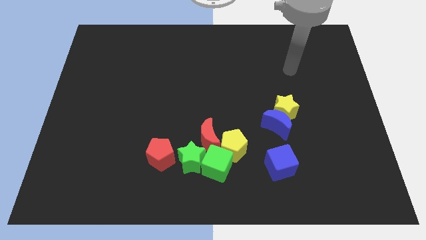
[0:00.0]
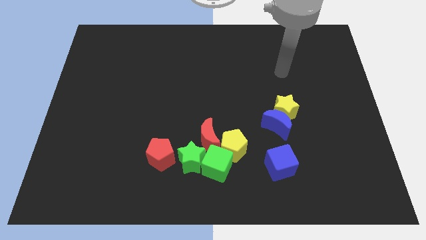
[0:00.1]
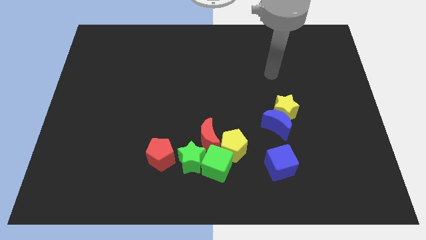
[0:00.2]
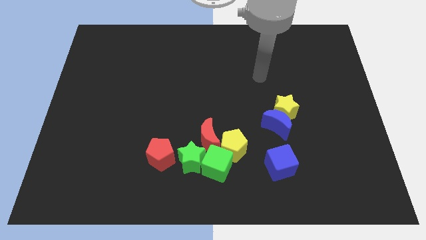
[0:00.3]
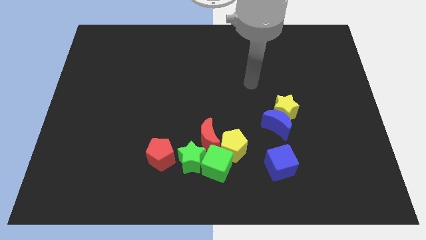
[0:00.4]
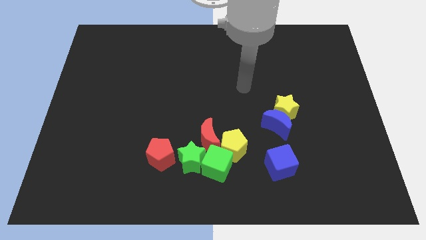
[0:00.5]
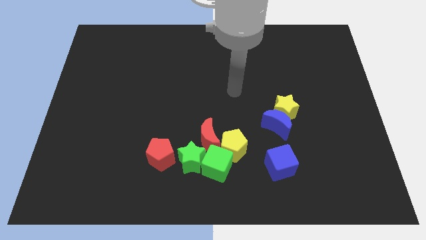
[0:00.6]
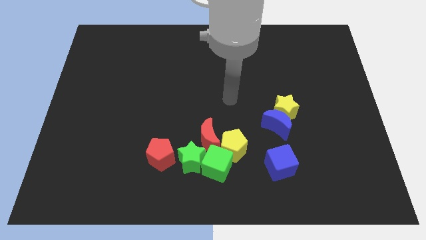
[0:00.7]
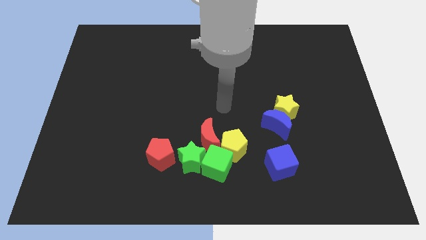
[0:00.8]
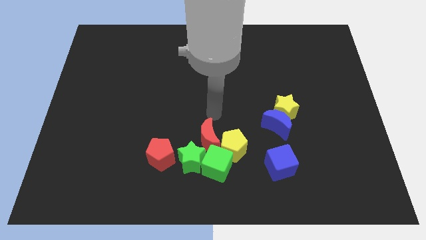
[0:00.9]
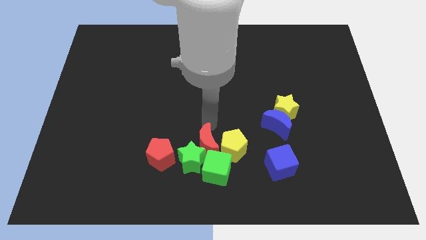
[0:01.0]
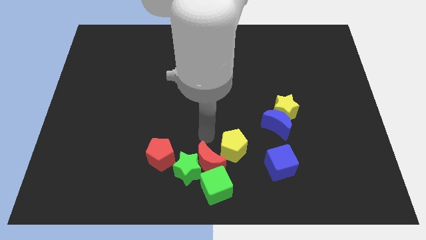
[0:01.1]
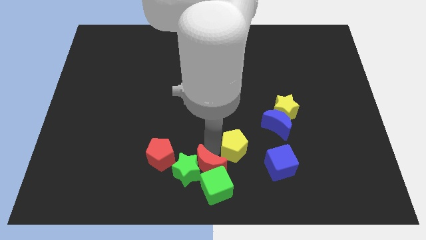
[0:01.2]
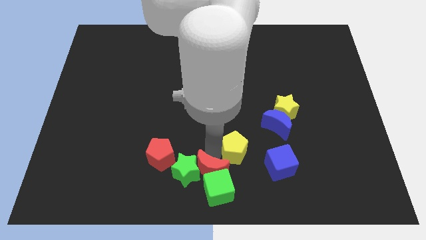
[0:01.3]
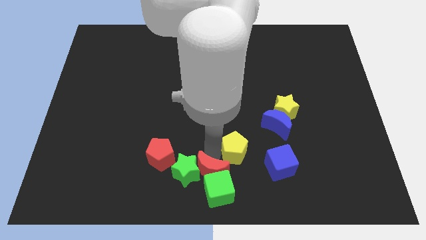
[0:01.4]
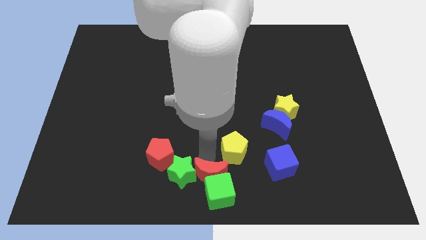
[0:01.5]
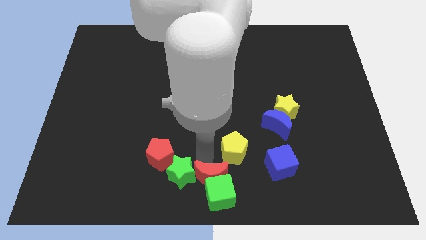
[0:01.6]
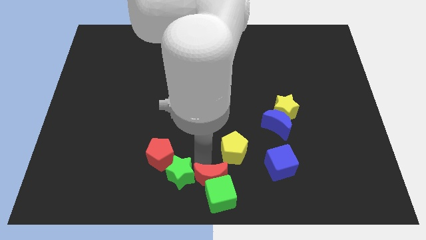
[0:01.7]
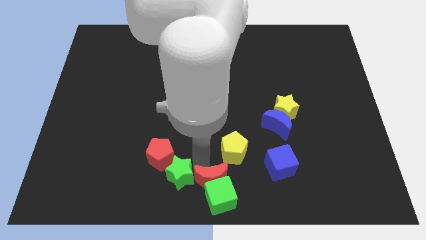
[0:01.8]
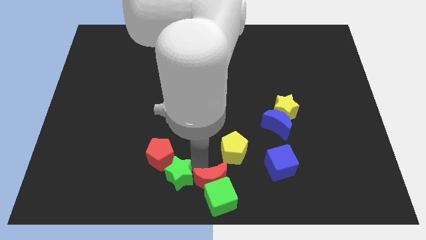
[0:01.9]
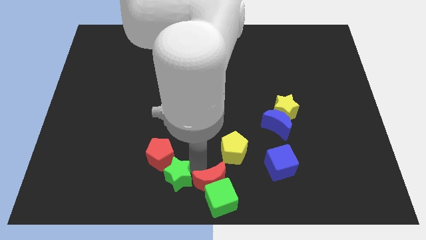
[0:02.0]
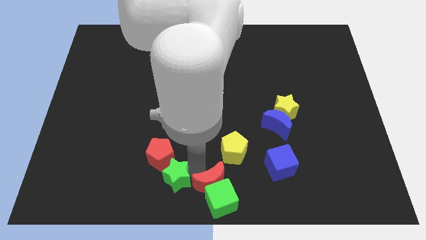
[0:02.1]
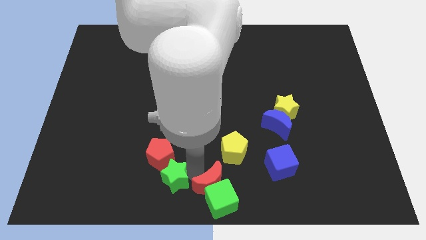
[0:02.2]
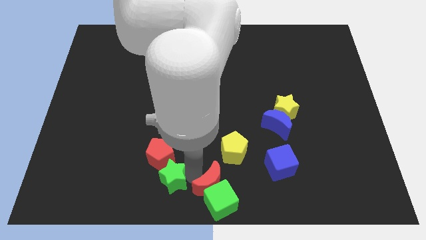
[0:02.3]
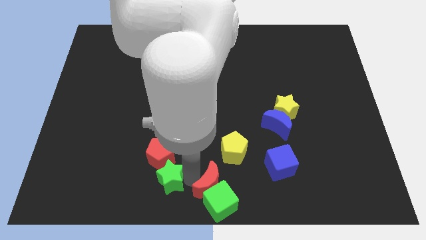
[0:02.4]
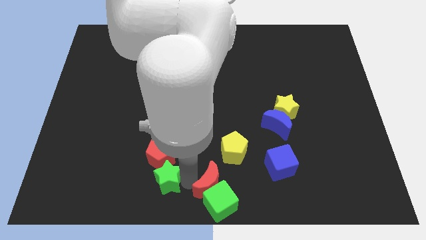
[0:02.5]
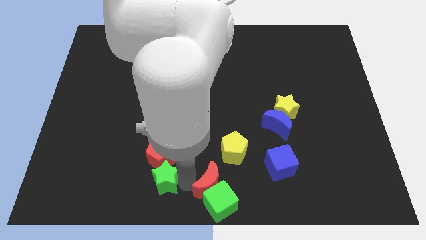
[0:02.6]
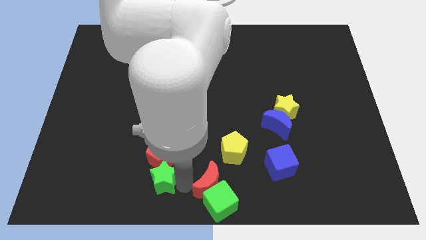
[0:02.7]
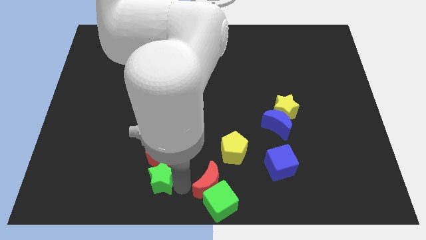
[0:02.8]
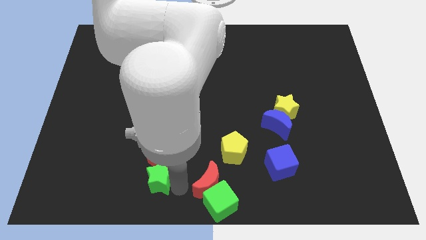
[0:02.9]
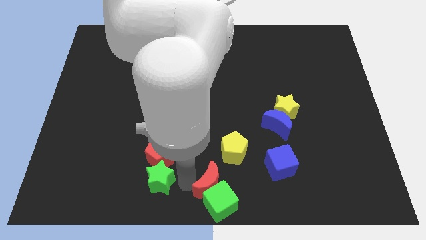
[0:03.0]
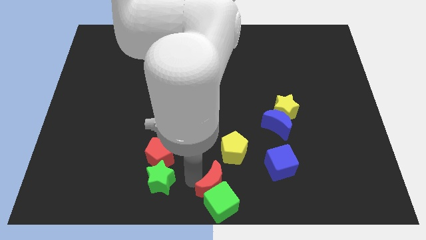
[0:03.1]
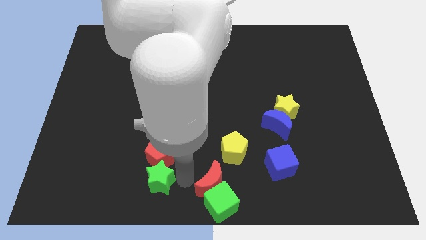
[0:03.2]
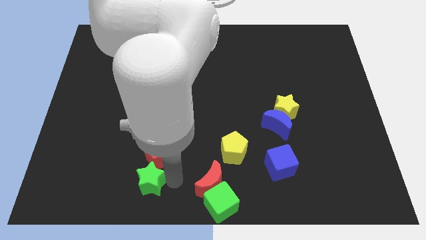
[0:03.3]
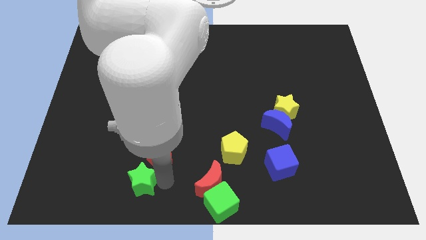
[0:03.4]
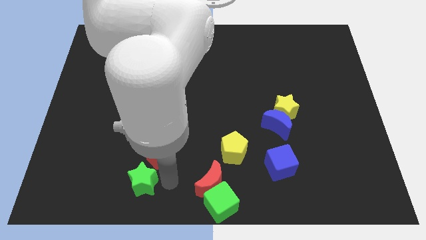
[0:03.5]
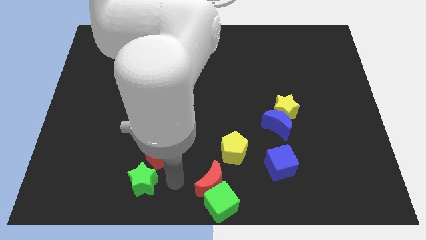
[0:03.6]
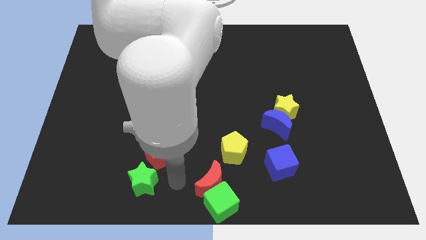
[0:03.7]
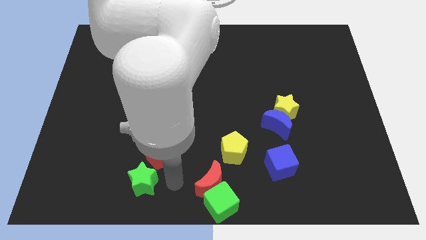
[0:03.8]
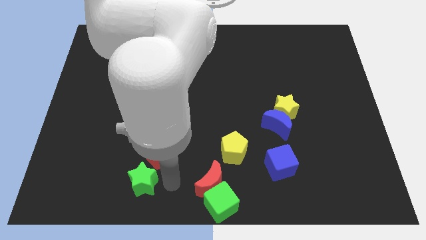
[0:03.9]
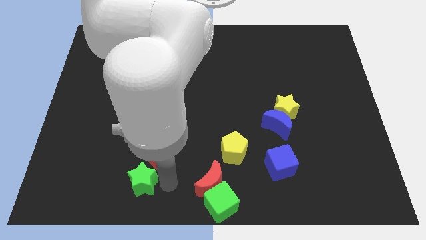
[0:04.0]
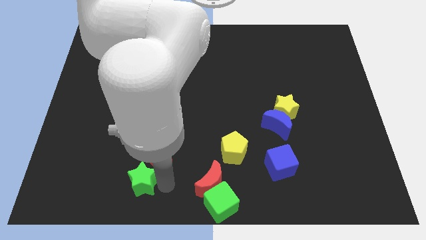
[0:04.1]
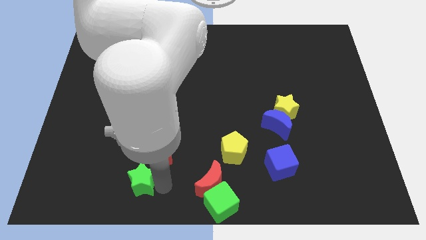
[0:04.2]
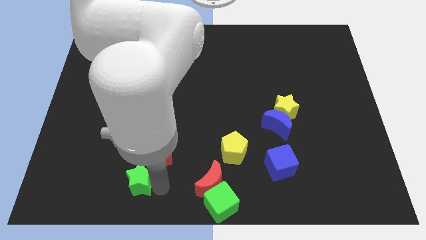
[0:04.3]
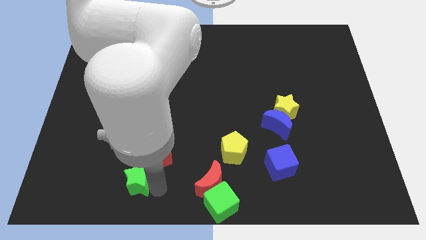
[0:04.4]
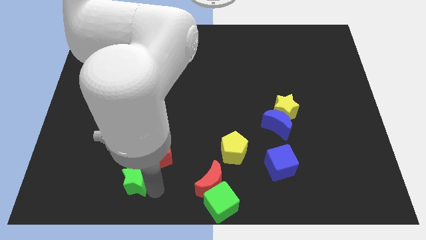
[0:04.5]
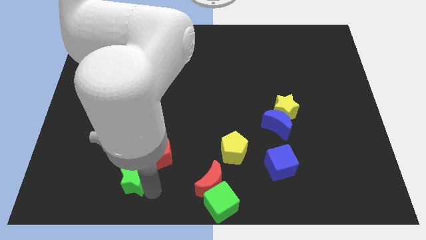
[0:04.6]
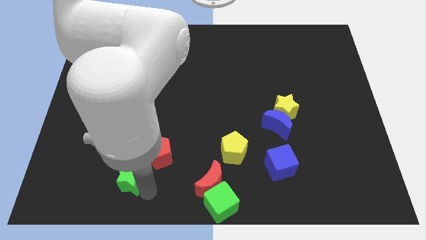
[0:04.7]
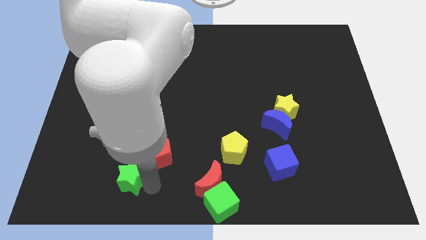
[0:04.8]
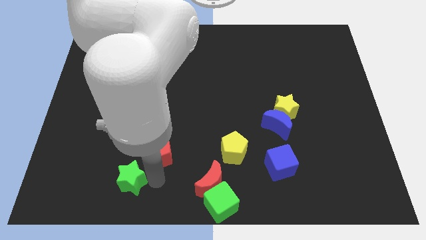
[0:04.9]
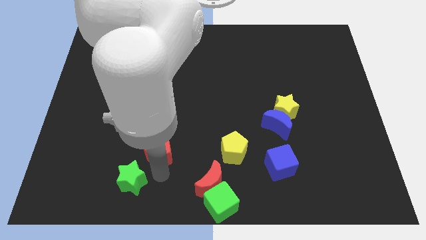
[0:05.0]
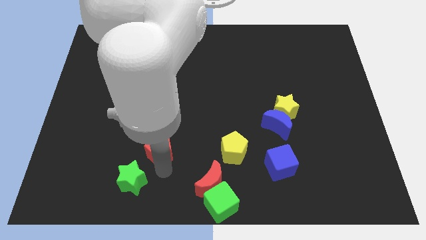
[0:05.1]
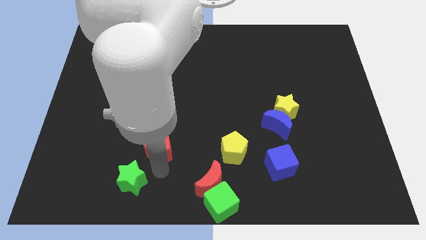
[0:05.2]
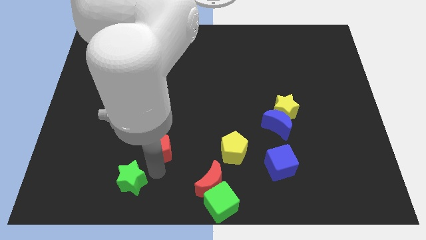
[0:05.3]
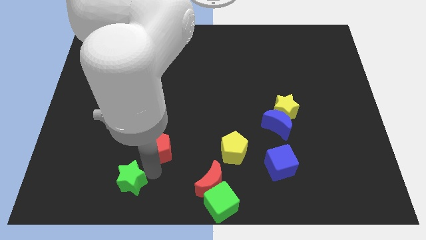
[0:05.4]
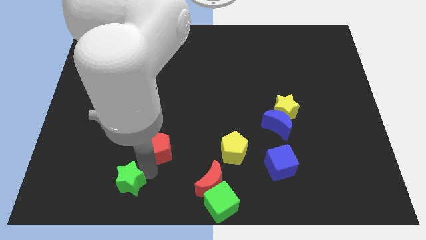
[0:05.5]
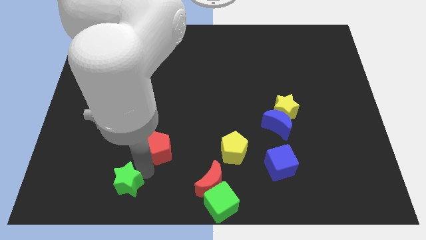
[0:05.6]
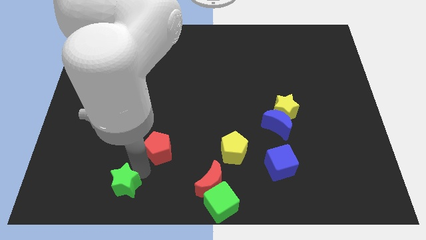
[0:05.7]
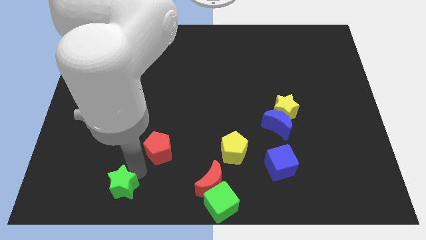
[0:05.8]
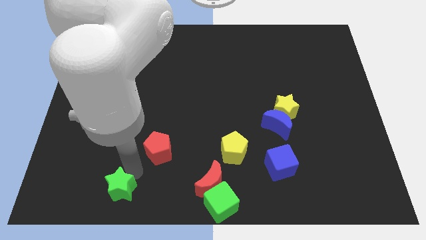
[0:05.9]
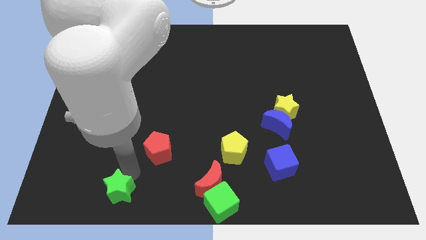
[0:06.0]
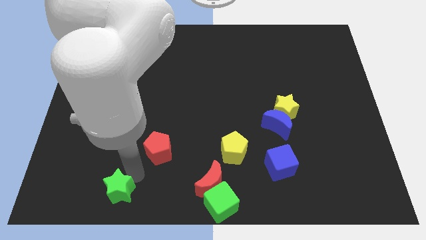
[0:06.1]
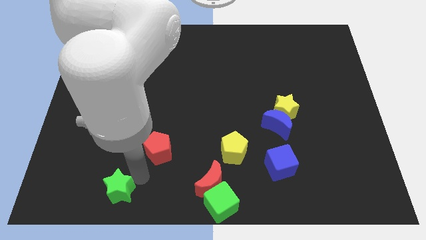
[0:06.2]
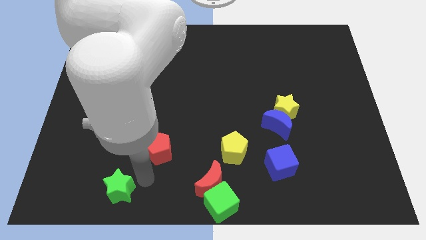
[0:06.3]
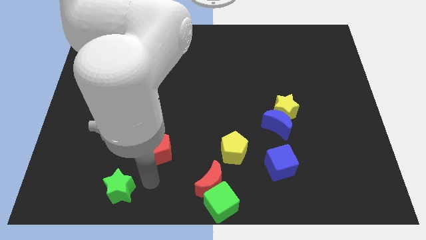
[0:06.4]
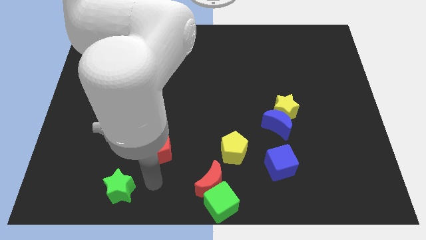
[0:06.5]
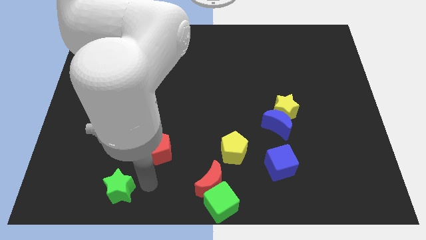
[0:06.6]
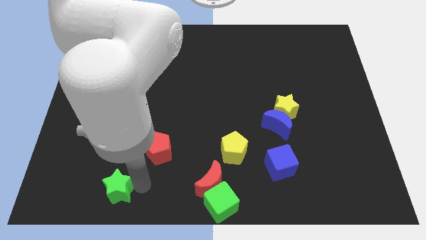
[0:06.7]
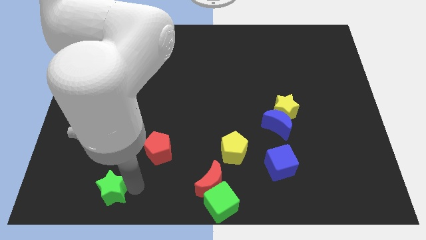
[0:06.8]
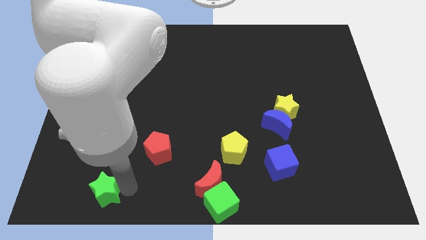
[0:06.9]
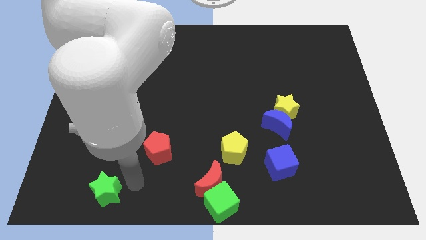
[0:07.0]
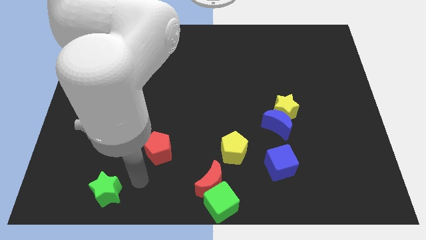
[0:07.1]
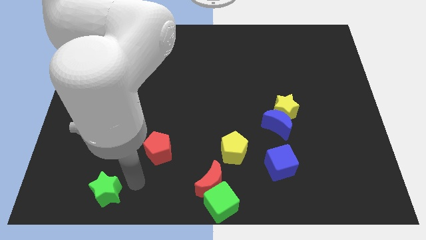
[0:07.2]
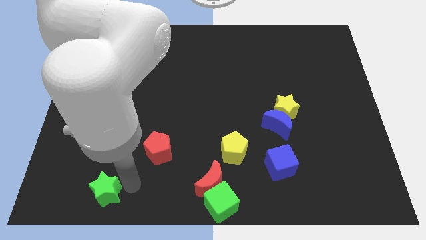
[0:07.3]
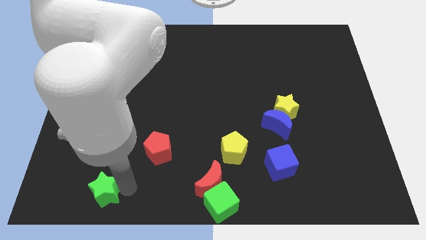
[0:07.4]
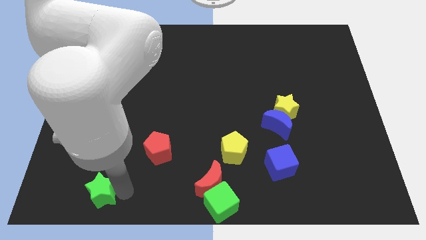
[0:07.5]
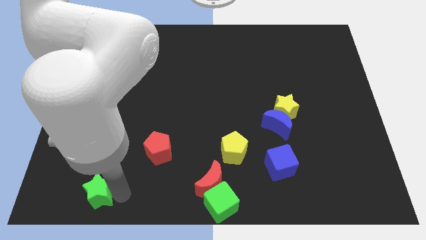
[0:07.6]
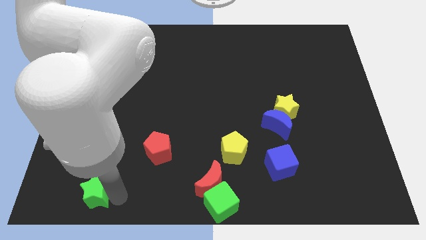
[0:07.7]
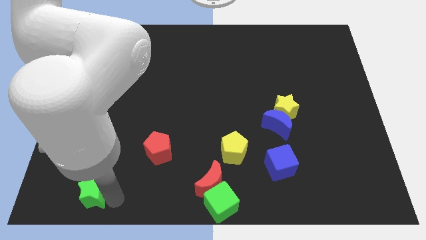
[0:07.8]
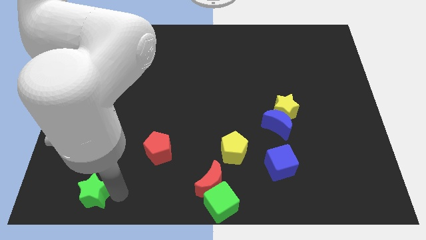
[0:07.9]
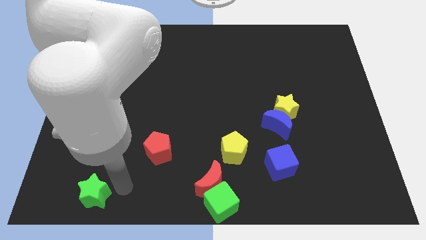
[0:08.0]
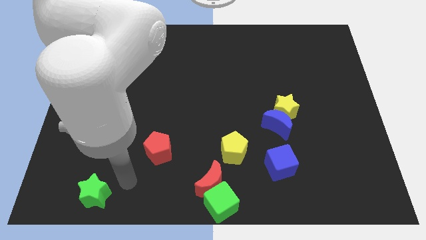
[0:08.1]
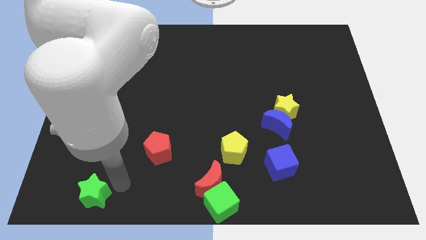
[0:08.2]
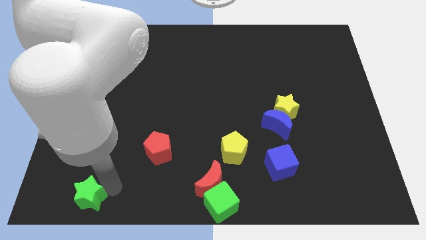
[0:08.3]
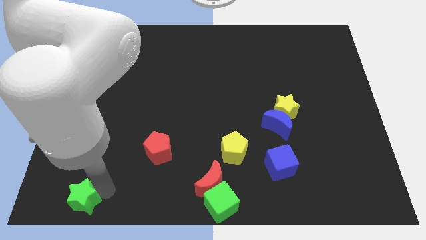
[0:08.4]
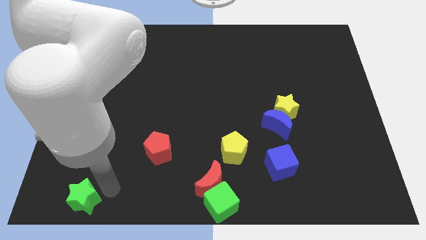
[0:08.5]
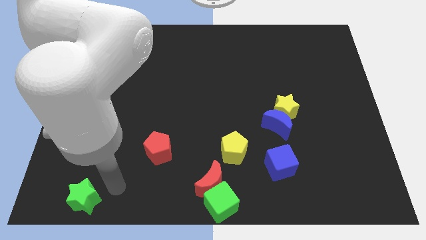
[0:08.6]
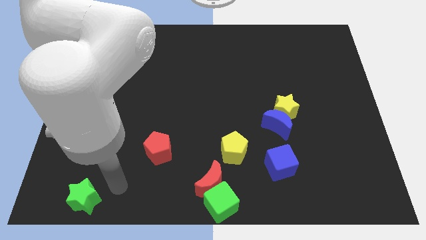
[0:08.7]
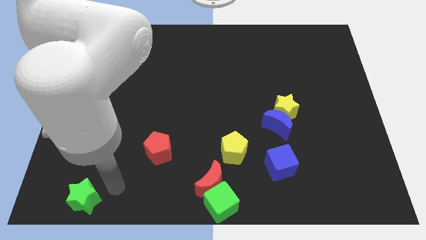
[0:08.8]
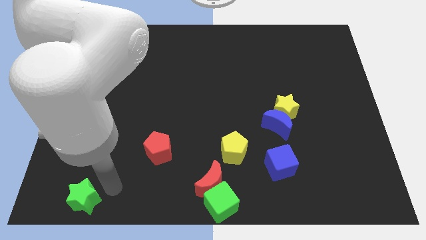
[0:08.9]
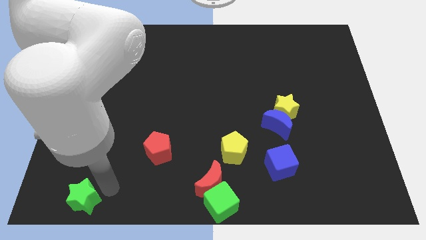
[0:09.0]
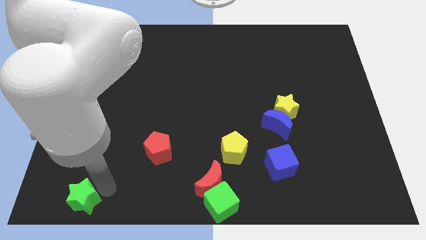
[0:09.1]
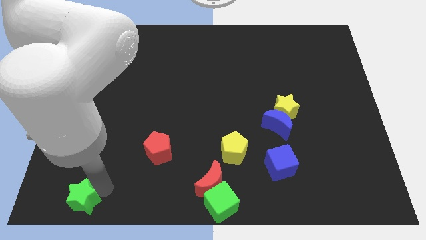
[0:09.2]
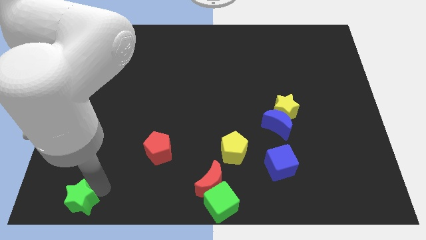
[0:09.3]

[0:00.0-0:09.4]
slide the green star to the lower left corner
